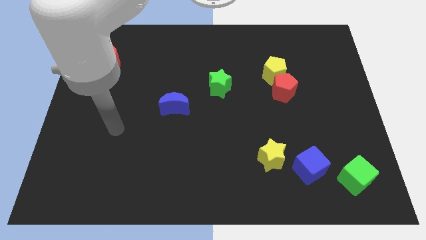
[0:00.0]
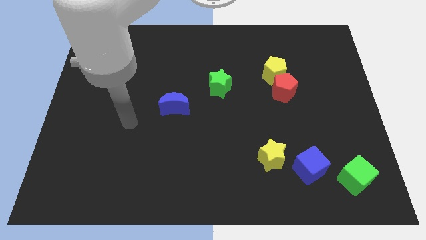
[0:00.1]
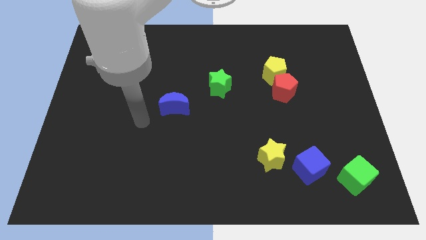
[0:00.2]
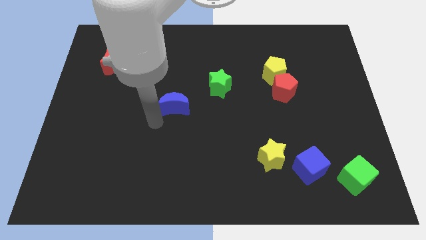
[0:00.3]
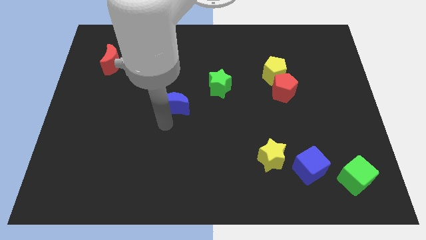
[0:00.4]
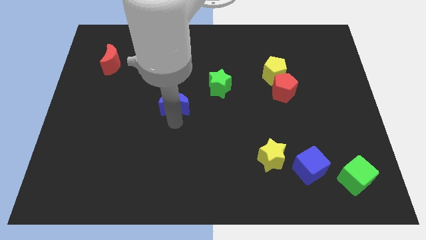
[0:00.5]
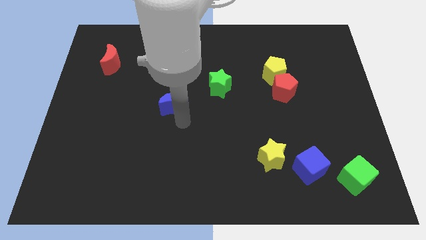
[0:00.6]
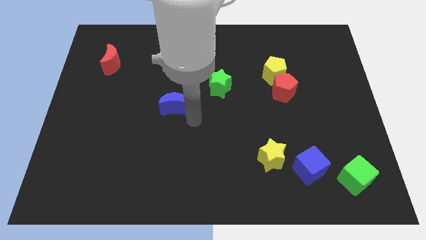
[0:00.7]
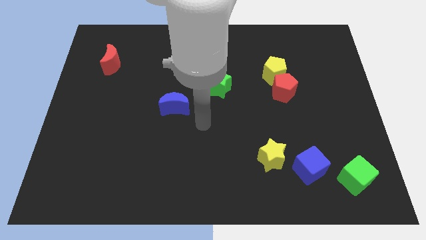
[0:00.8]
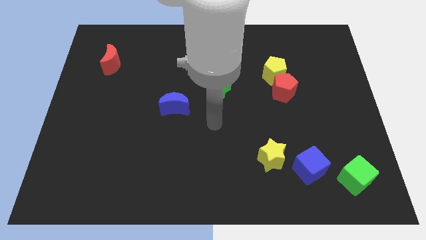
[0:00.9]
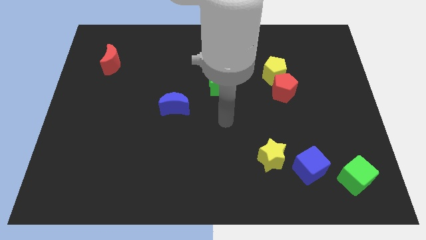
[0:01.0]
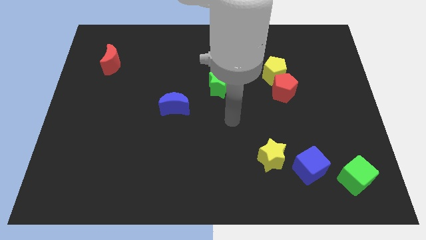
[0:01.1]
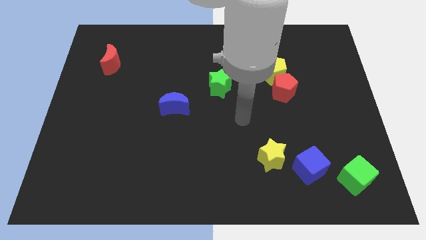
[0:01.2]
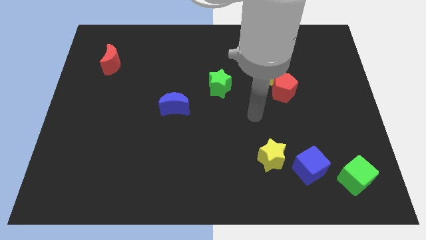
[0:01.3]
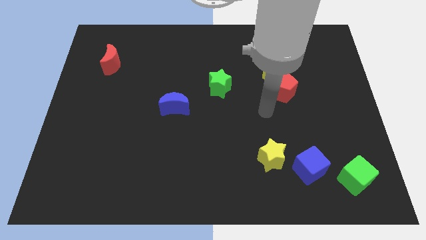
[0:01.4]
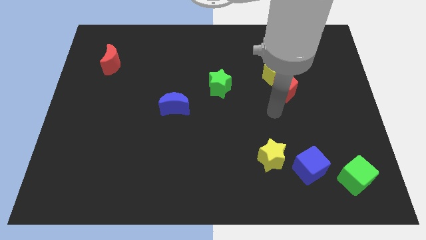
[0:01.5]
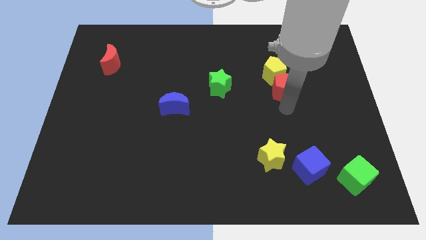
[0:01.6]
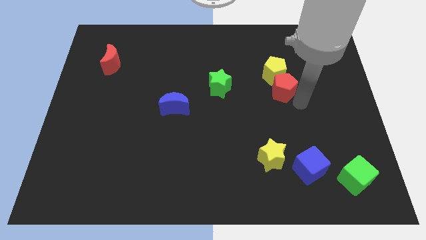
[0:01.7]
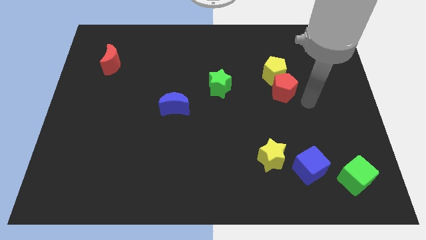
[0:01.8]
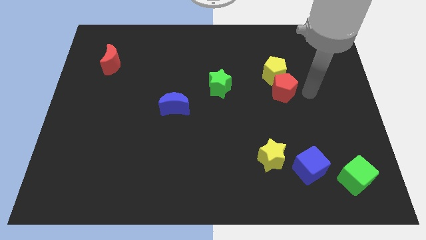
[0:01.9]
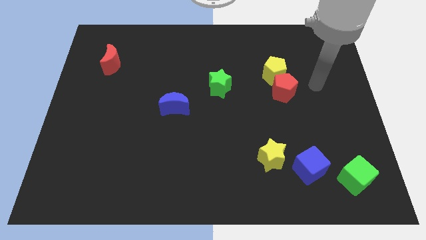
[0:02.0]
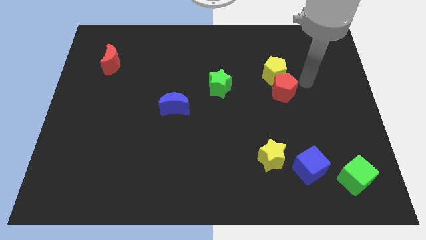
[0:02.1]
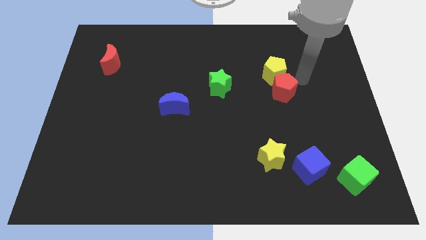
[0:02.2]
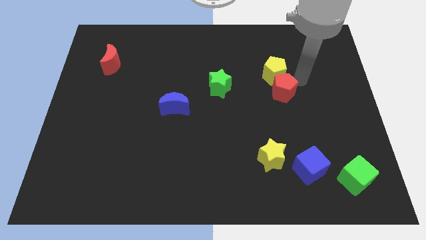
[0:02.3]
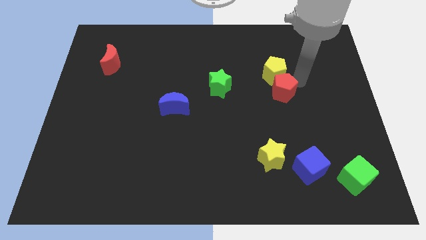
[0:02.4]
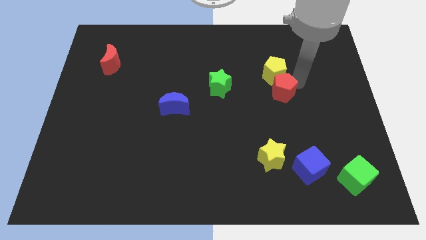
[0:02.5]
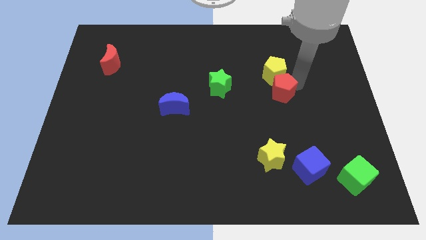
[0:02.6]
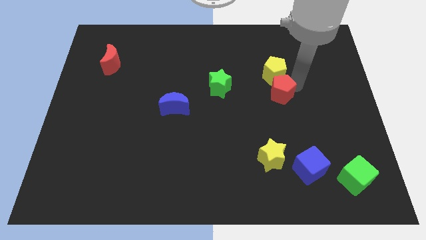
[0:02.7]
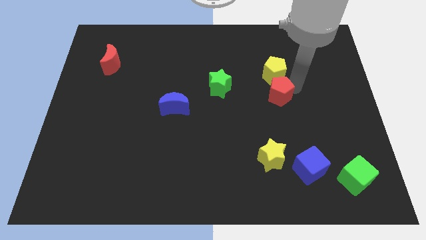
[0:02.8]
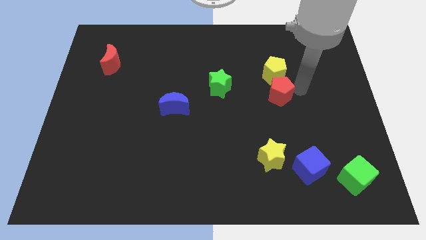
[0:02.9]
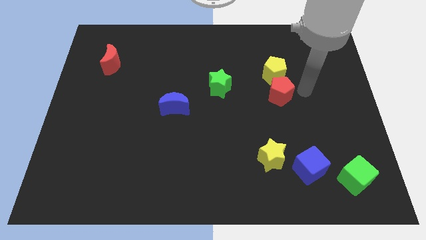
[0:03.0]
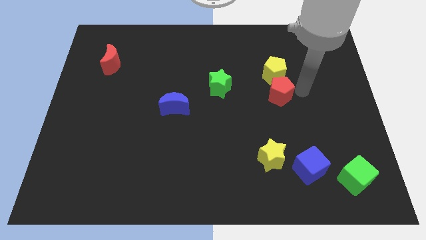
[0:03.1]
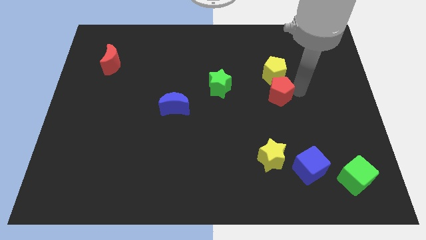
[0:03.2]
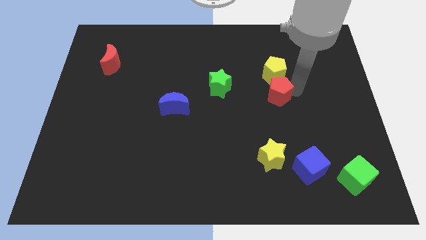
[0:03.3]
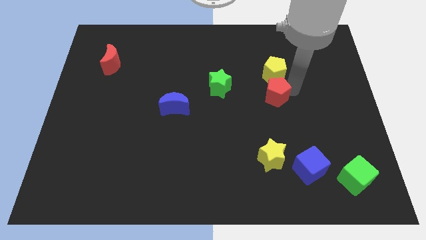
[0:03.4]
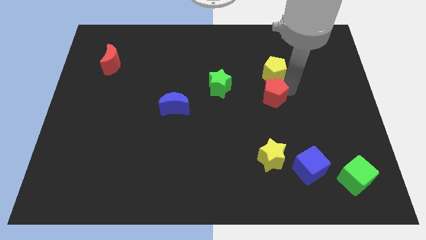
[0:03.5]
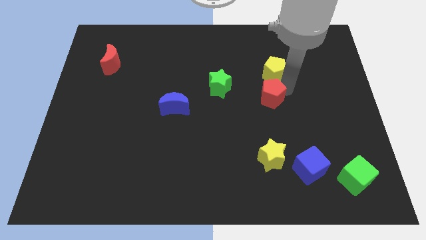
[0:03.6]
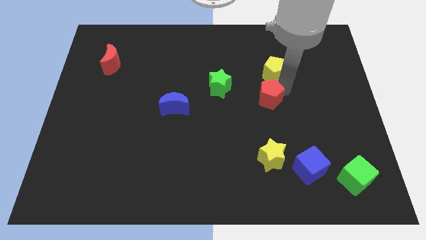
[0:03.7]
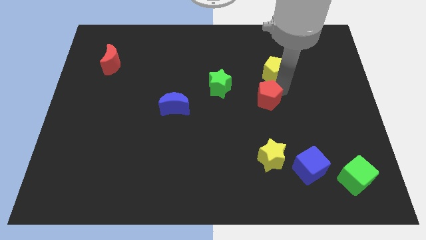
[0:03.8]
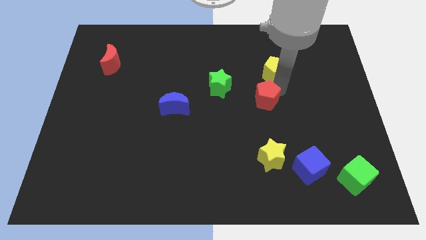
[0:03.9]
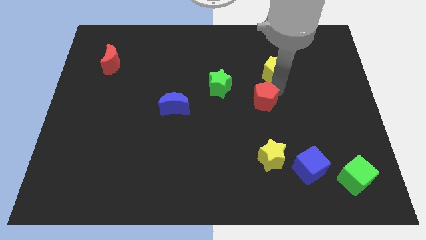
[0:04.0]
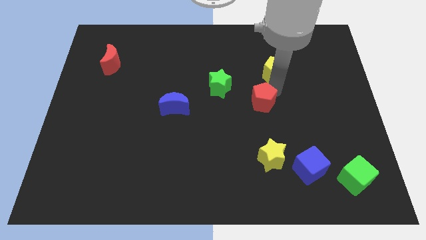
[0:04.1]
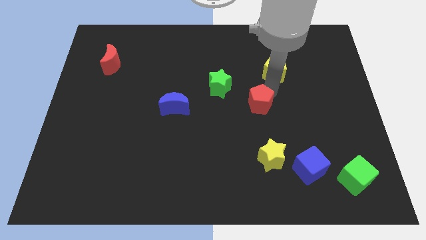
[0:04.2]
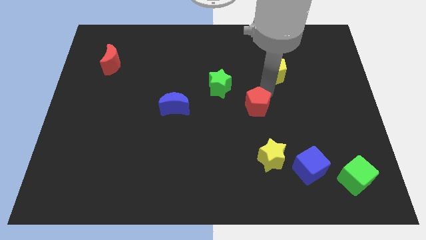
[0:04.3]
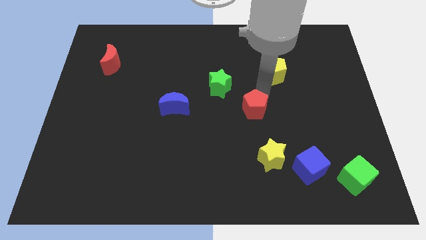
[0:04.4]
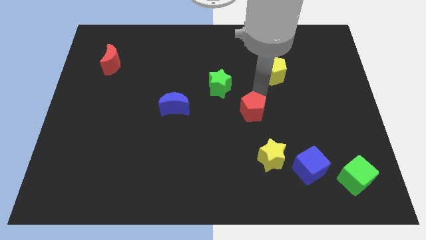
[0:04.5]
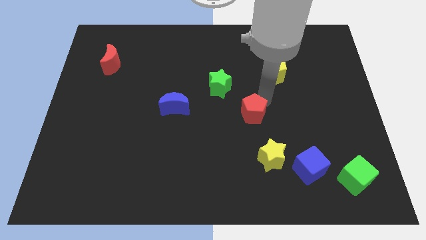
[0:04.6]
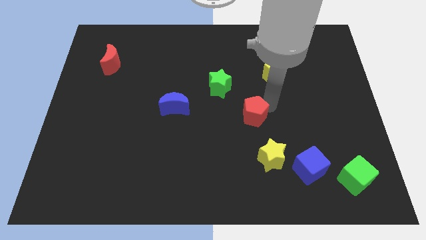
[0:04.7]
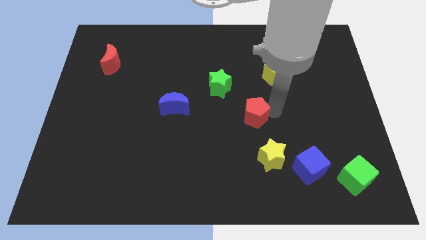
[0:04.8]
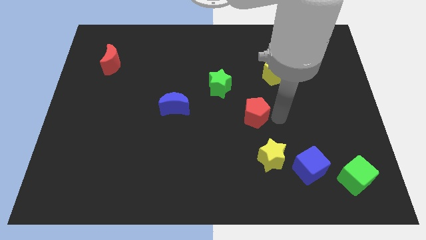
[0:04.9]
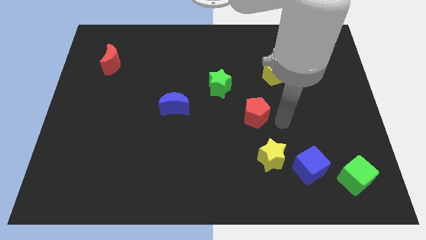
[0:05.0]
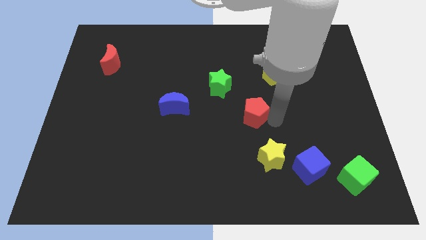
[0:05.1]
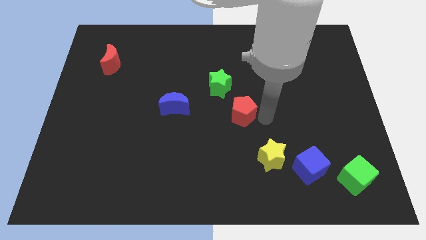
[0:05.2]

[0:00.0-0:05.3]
push the red pentagon a little bit left

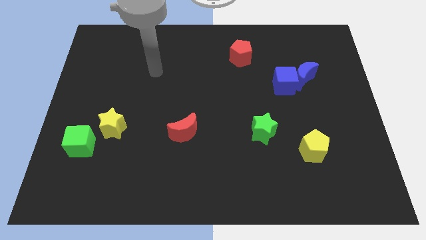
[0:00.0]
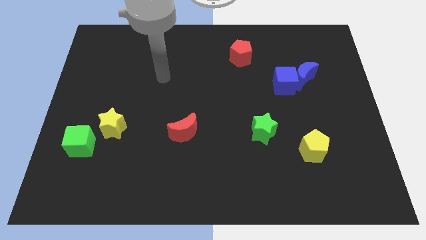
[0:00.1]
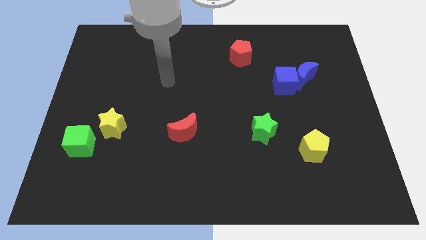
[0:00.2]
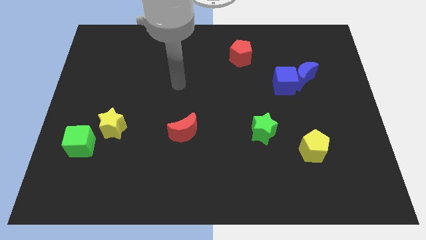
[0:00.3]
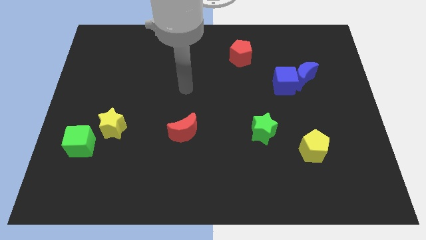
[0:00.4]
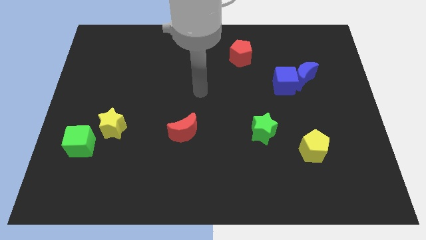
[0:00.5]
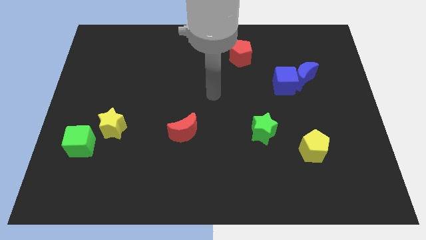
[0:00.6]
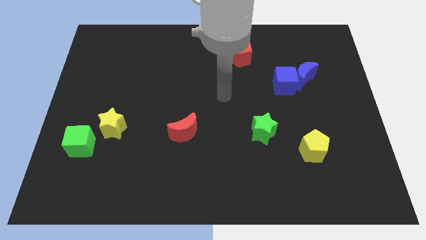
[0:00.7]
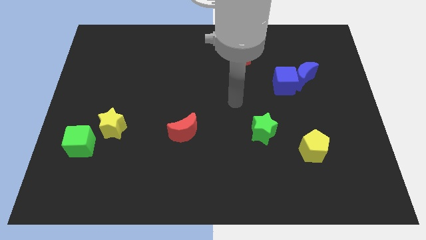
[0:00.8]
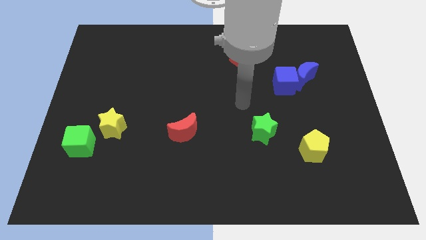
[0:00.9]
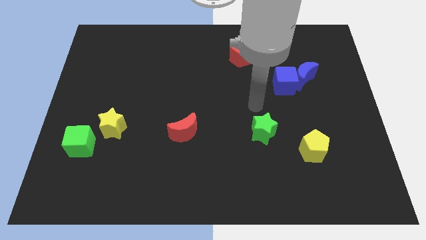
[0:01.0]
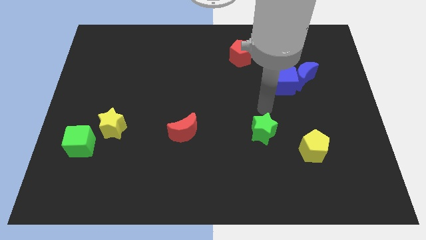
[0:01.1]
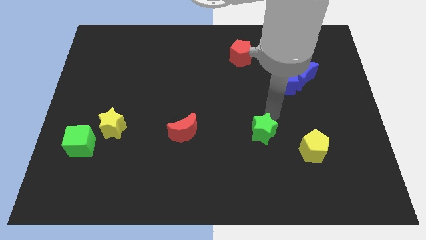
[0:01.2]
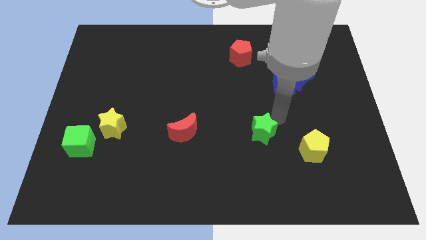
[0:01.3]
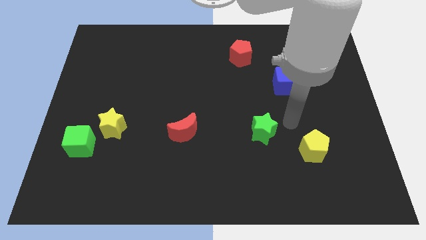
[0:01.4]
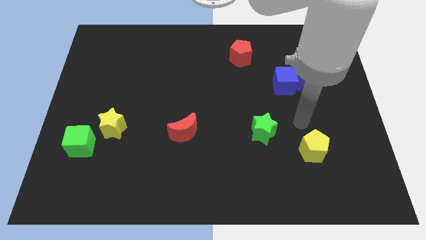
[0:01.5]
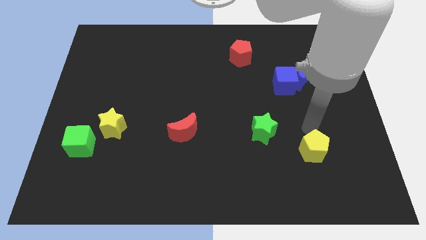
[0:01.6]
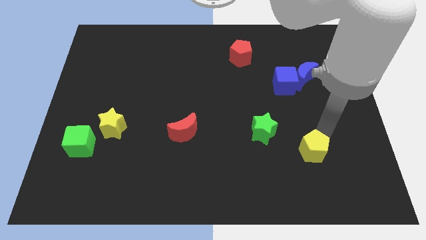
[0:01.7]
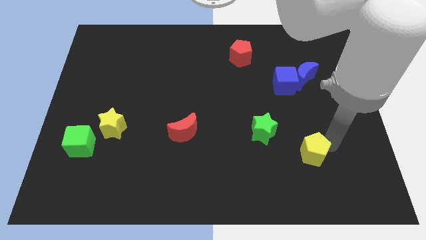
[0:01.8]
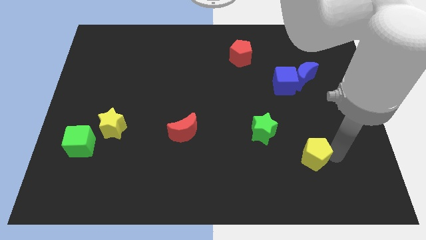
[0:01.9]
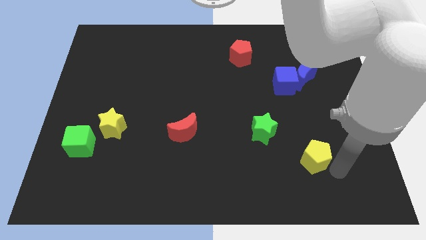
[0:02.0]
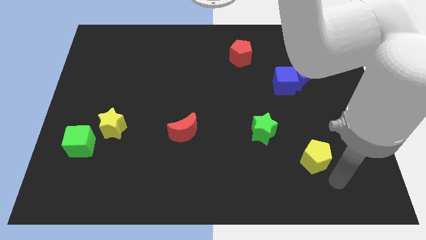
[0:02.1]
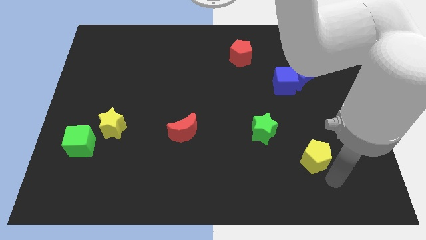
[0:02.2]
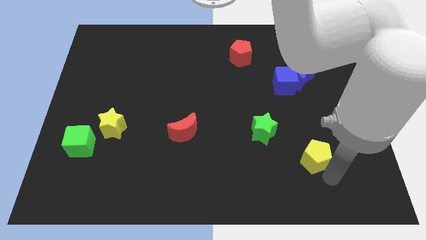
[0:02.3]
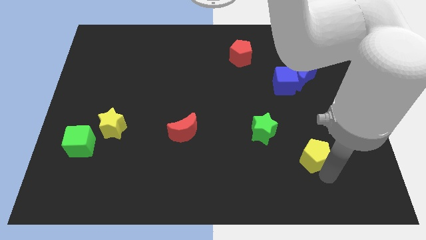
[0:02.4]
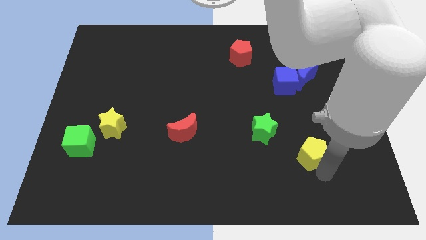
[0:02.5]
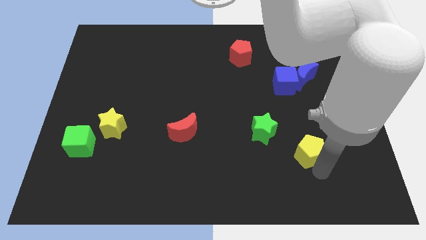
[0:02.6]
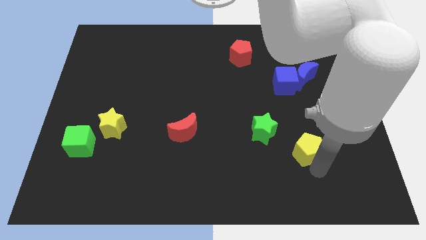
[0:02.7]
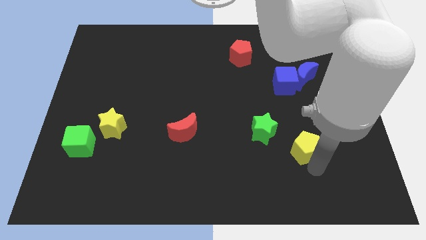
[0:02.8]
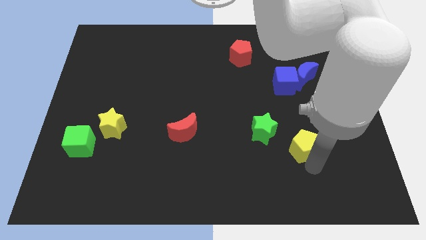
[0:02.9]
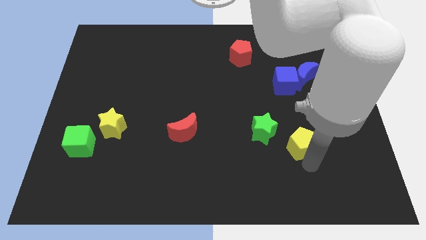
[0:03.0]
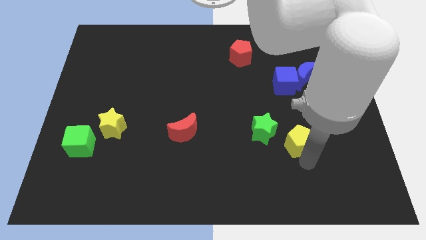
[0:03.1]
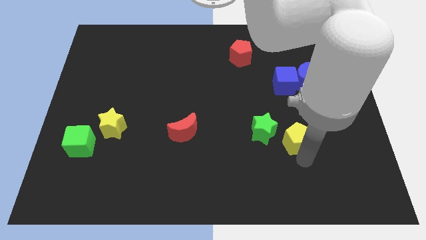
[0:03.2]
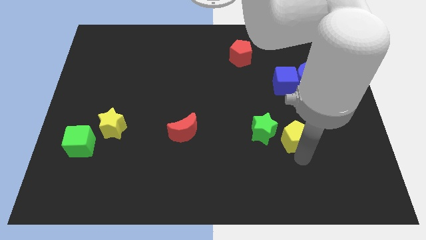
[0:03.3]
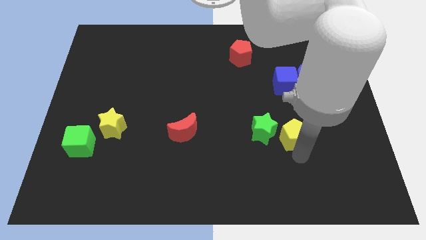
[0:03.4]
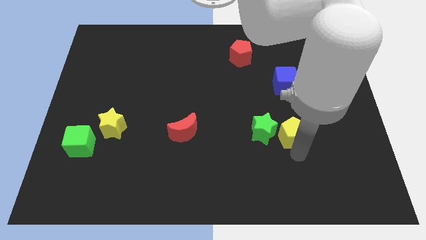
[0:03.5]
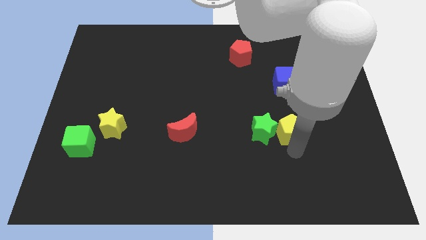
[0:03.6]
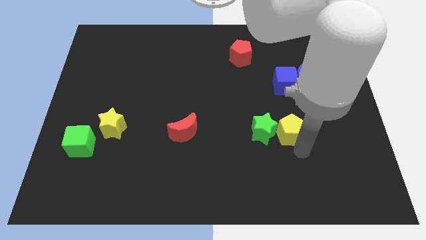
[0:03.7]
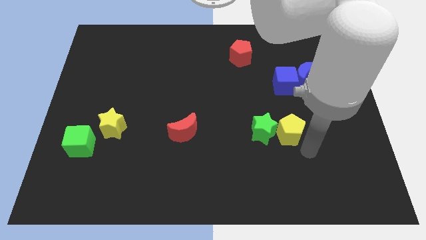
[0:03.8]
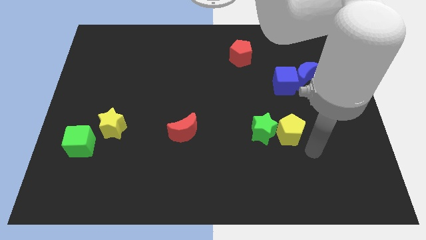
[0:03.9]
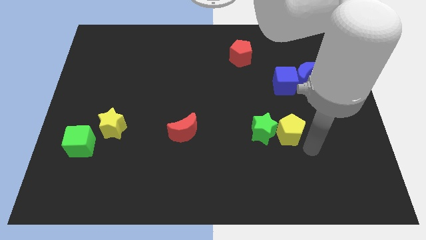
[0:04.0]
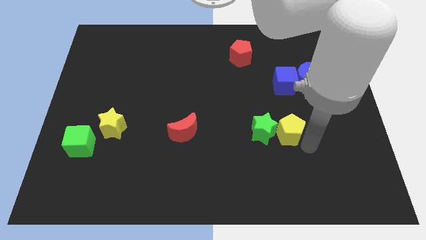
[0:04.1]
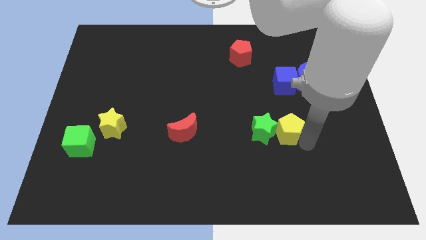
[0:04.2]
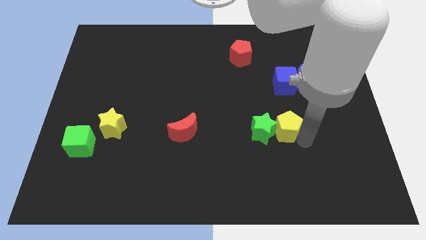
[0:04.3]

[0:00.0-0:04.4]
slide the yellow pentagon a little up and left diagonally
